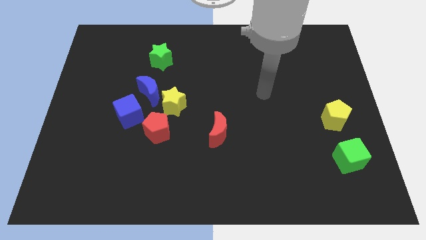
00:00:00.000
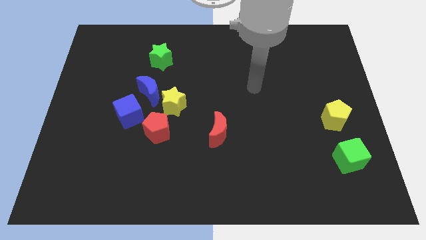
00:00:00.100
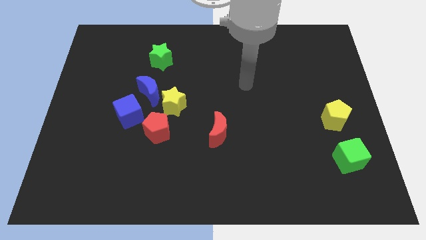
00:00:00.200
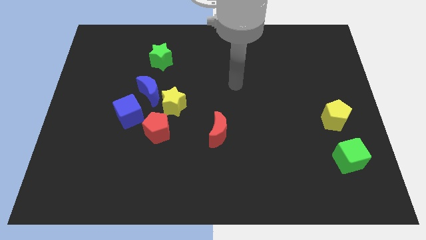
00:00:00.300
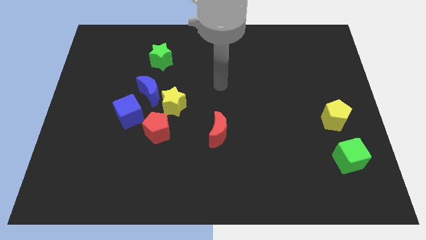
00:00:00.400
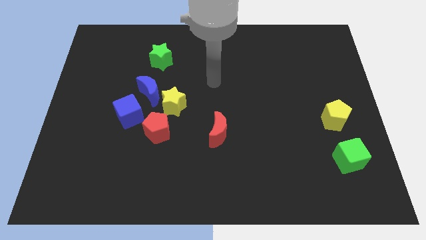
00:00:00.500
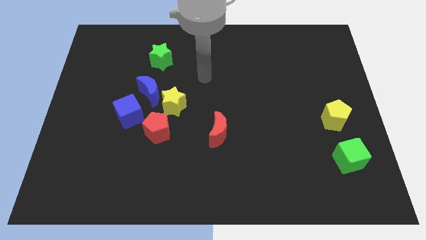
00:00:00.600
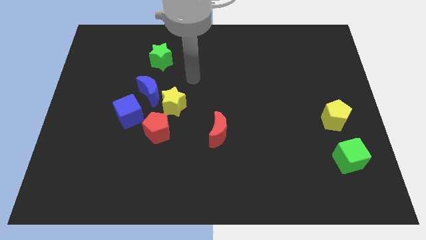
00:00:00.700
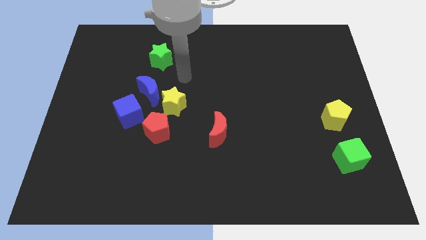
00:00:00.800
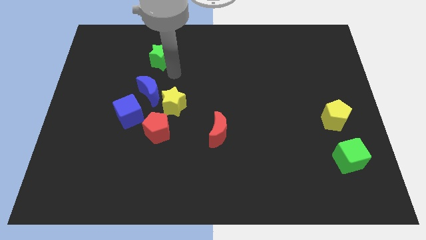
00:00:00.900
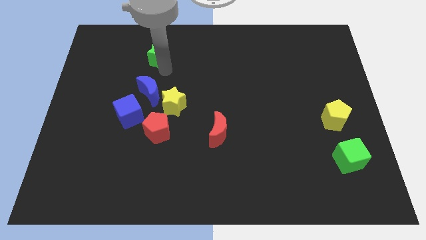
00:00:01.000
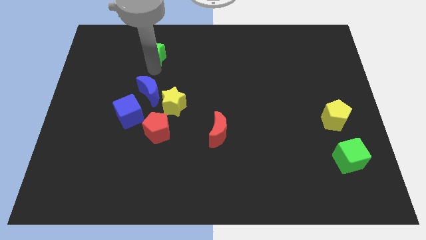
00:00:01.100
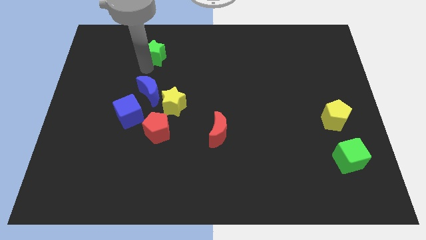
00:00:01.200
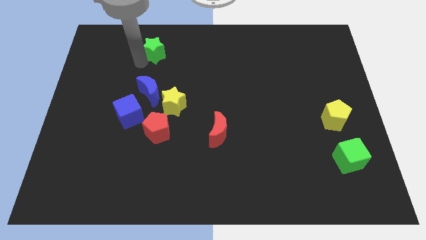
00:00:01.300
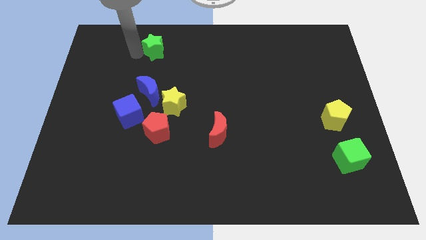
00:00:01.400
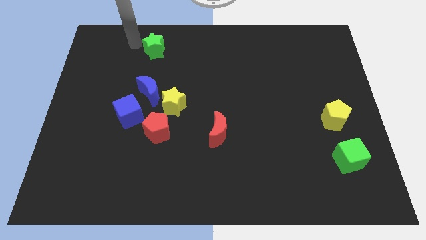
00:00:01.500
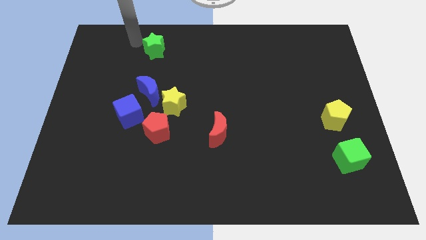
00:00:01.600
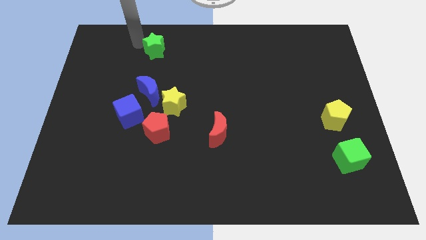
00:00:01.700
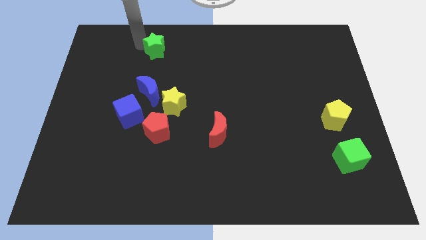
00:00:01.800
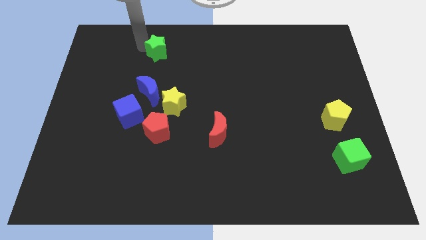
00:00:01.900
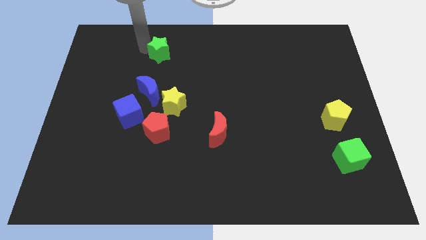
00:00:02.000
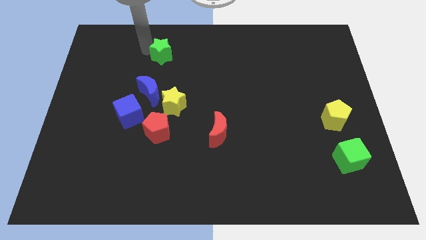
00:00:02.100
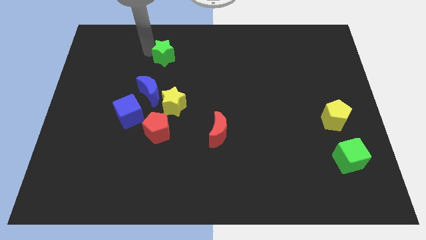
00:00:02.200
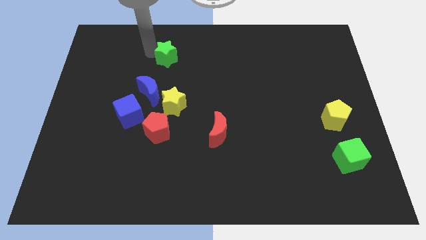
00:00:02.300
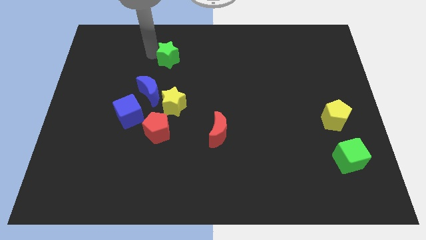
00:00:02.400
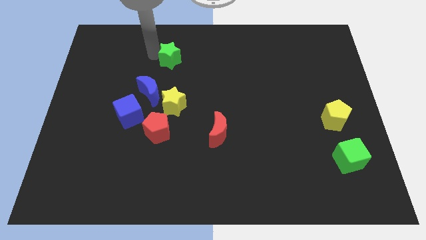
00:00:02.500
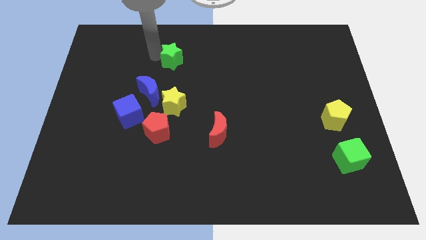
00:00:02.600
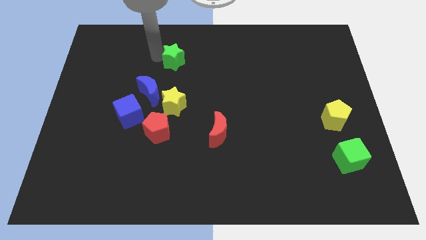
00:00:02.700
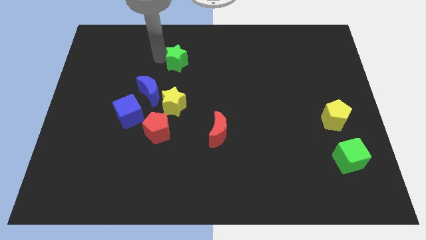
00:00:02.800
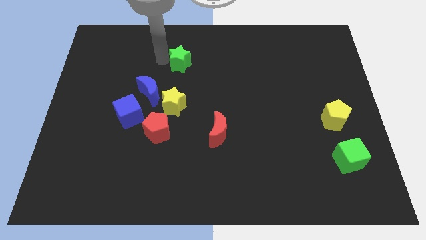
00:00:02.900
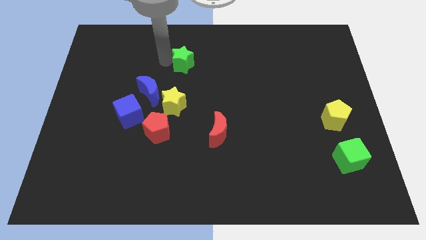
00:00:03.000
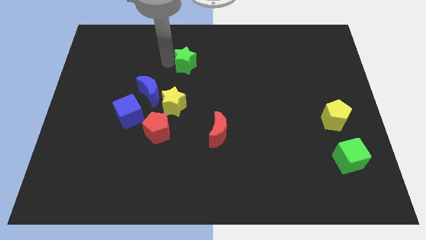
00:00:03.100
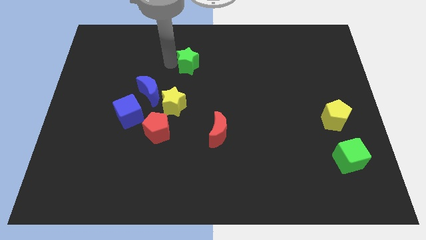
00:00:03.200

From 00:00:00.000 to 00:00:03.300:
move the green star a bit to the right

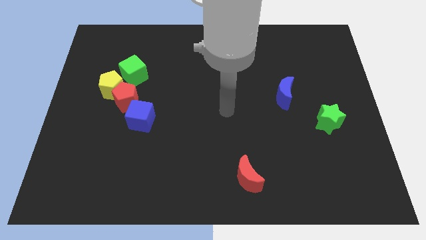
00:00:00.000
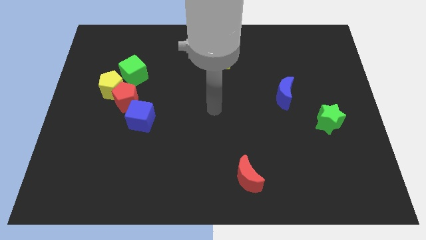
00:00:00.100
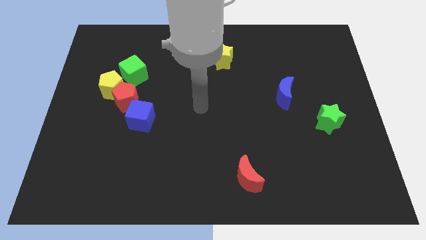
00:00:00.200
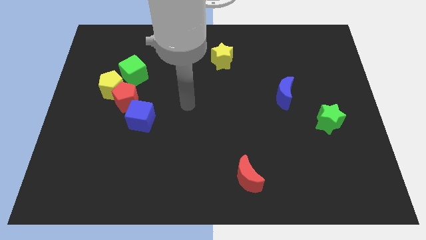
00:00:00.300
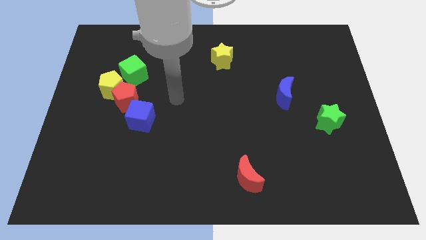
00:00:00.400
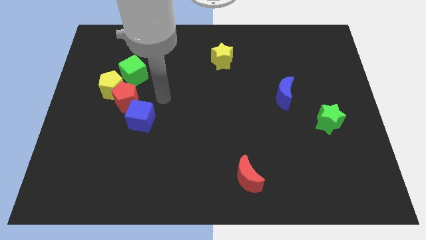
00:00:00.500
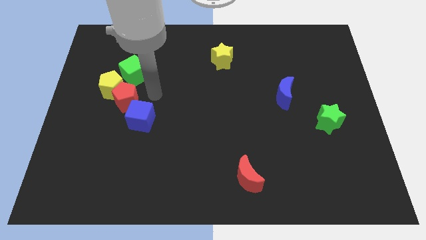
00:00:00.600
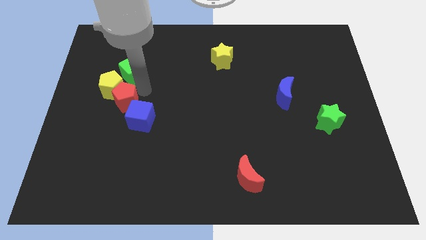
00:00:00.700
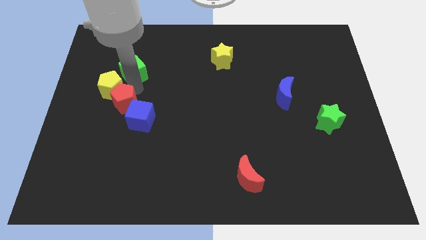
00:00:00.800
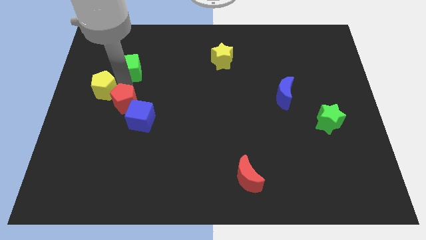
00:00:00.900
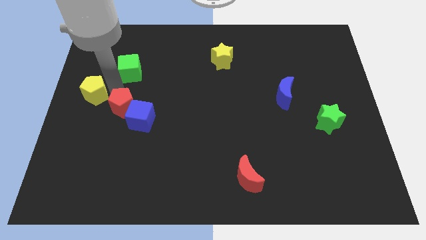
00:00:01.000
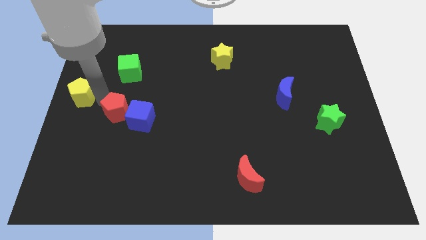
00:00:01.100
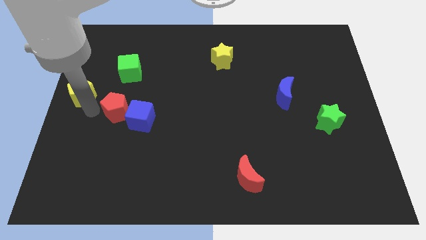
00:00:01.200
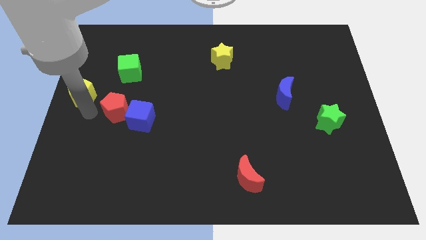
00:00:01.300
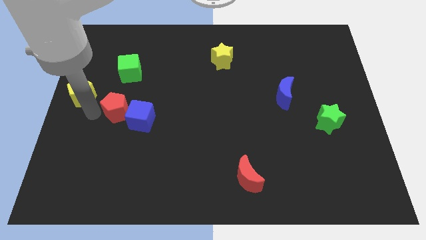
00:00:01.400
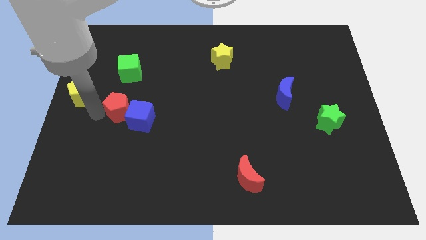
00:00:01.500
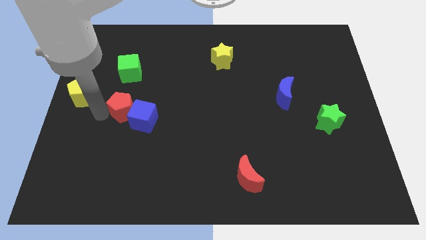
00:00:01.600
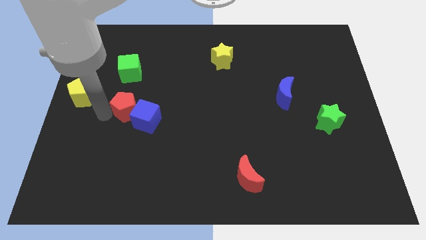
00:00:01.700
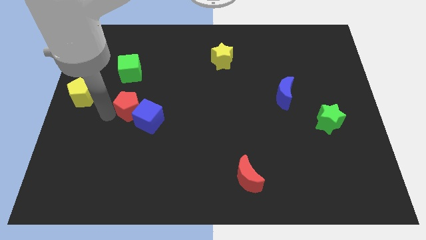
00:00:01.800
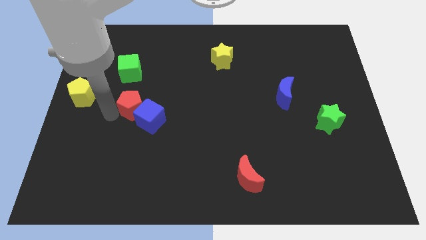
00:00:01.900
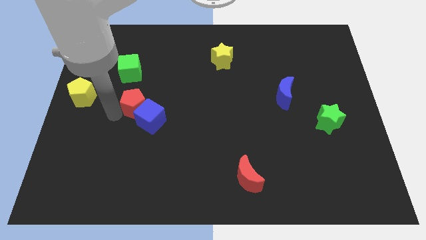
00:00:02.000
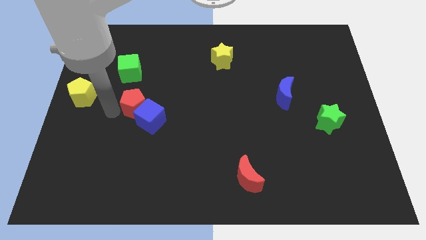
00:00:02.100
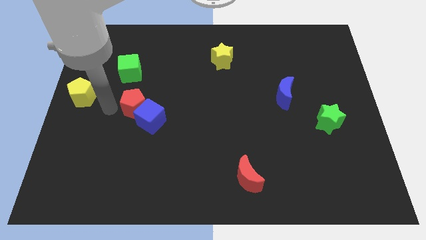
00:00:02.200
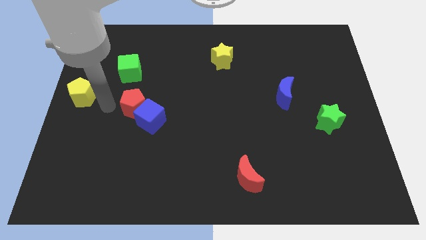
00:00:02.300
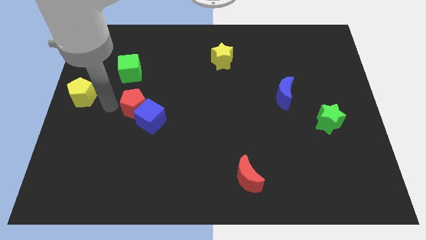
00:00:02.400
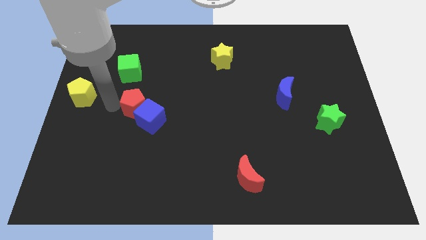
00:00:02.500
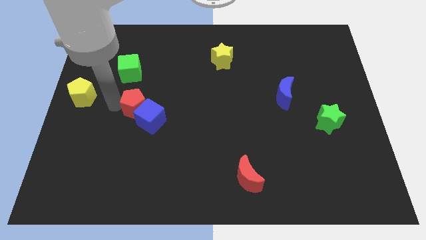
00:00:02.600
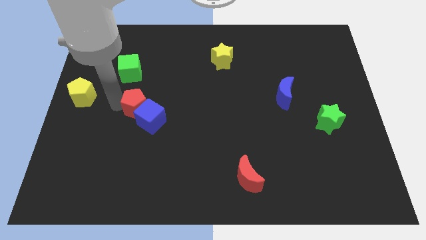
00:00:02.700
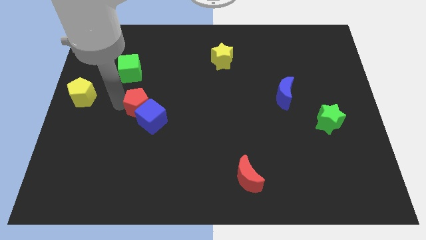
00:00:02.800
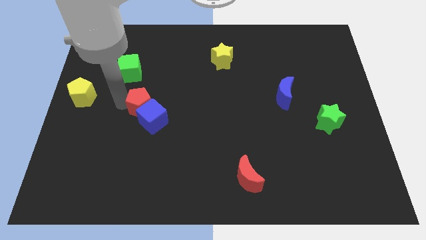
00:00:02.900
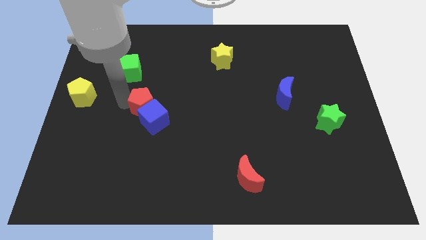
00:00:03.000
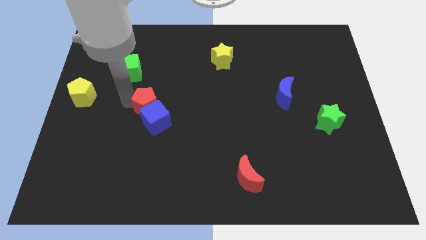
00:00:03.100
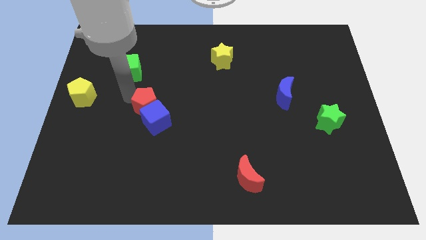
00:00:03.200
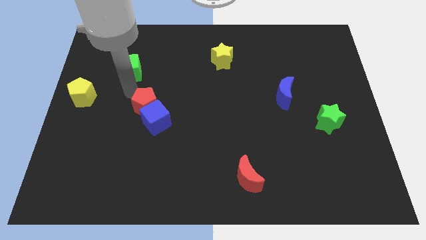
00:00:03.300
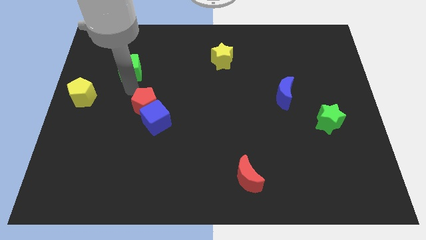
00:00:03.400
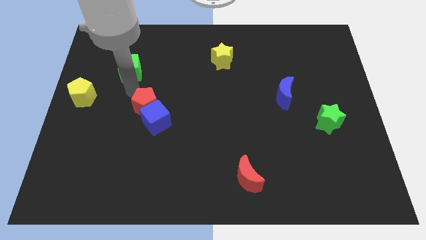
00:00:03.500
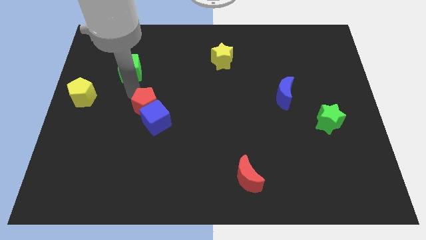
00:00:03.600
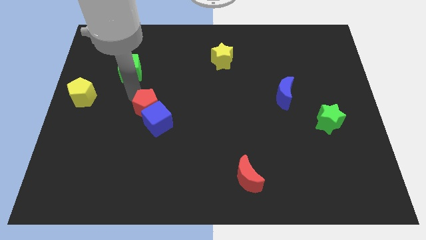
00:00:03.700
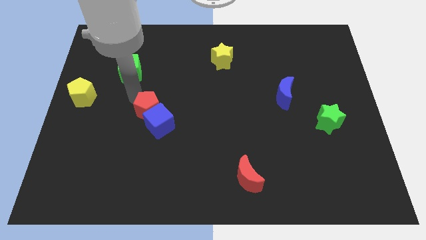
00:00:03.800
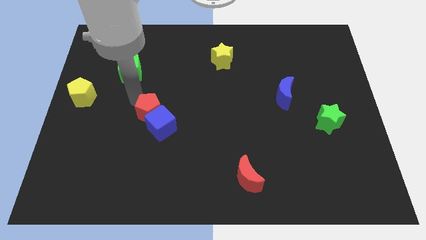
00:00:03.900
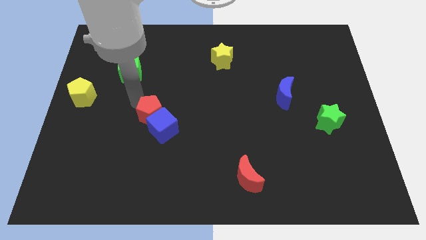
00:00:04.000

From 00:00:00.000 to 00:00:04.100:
push the red pentagon downwards and to the right slightly

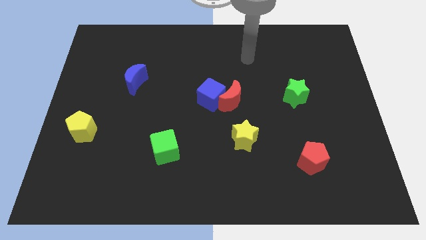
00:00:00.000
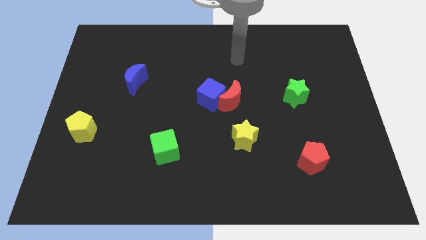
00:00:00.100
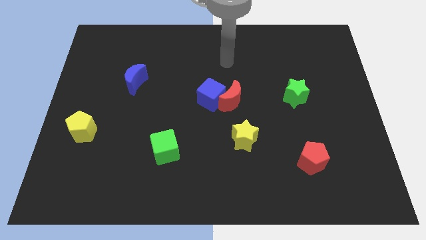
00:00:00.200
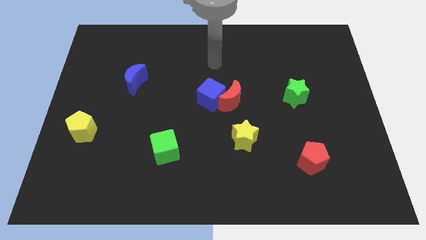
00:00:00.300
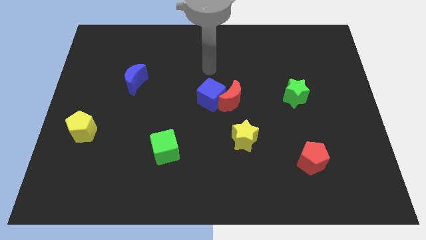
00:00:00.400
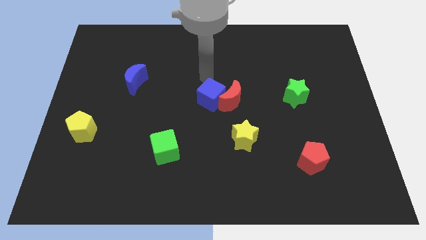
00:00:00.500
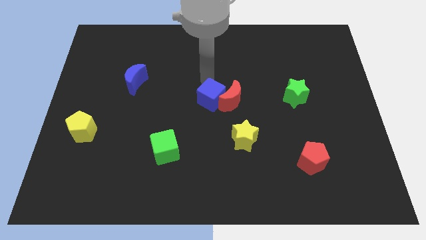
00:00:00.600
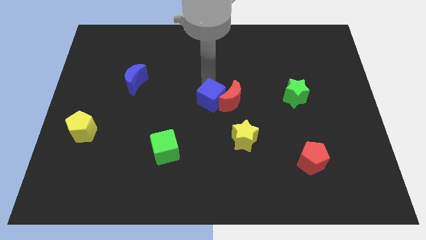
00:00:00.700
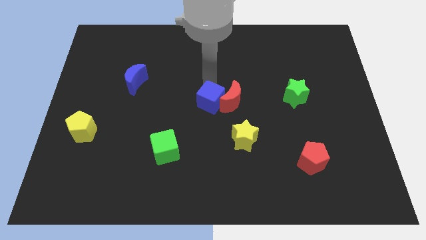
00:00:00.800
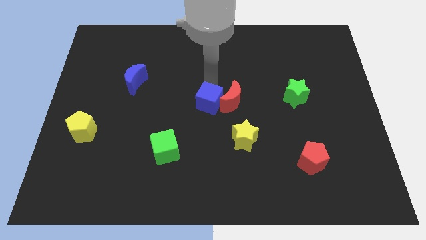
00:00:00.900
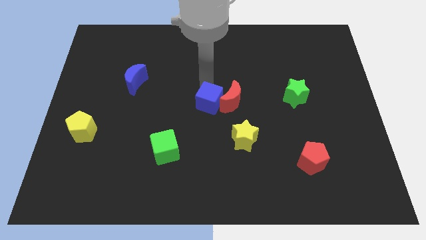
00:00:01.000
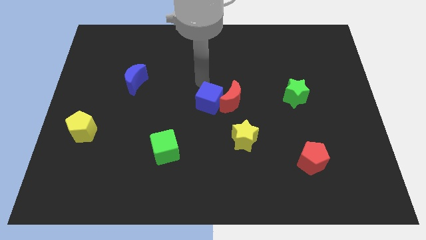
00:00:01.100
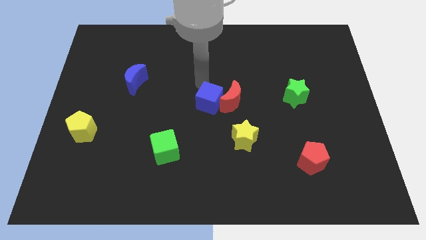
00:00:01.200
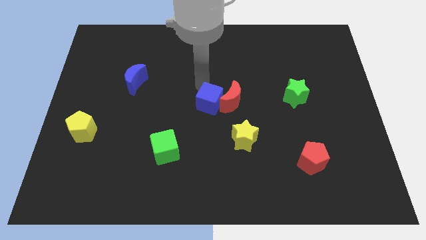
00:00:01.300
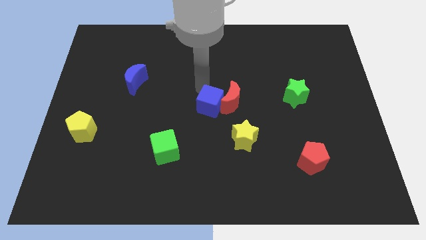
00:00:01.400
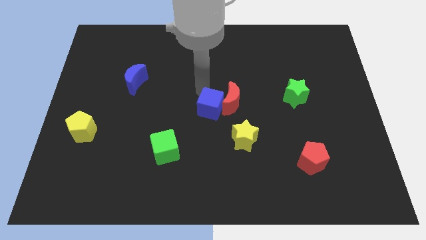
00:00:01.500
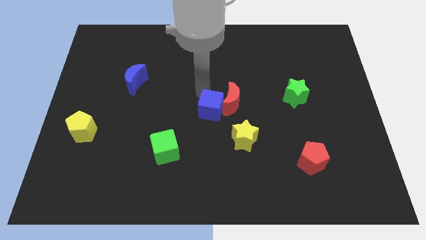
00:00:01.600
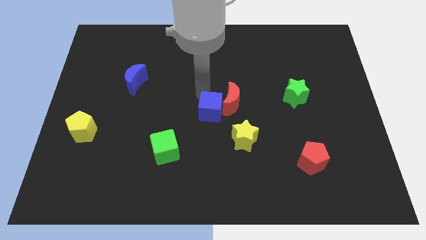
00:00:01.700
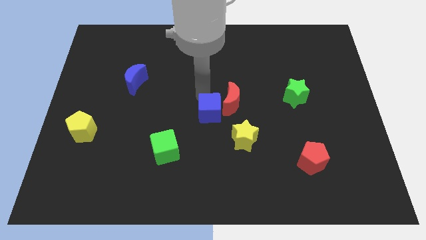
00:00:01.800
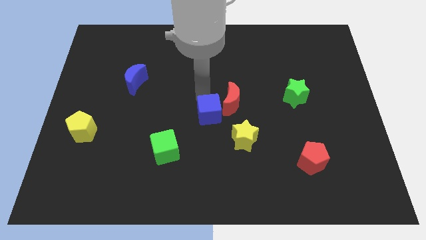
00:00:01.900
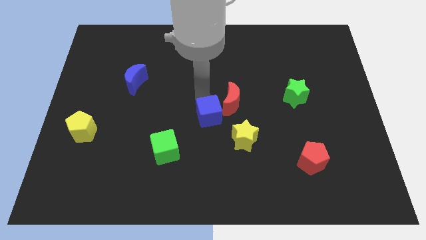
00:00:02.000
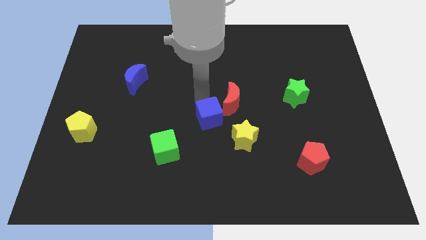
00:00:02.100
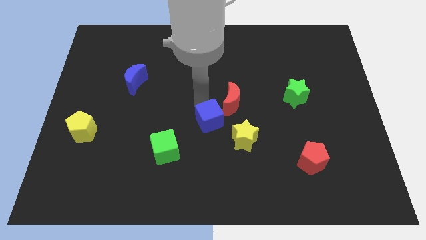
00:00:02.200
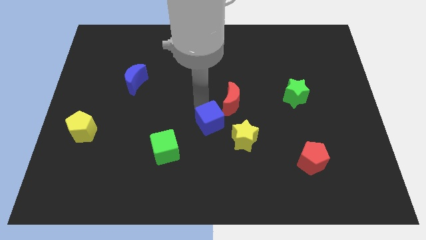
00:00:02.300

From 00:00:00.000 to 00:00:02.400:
slide the blue cube a little bit downwards
